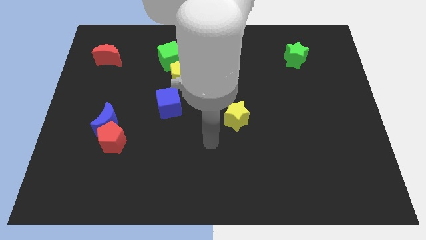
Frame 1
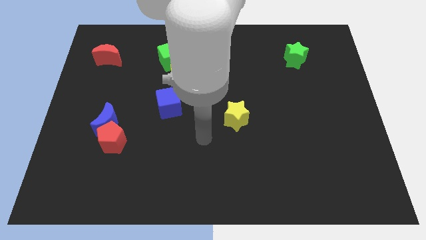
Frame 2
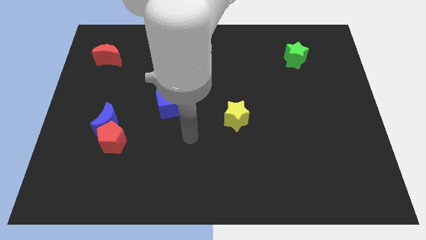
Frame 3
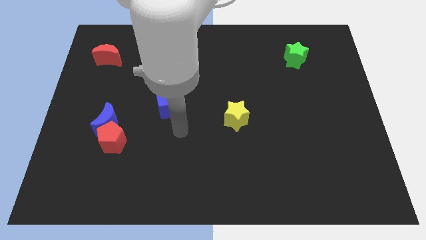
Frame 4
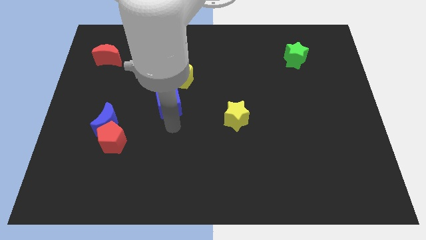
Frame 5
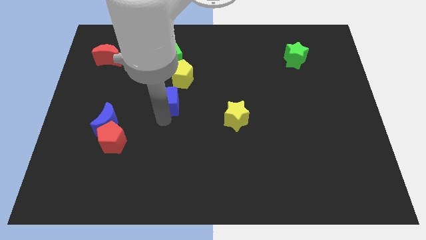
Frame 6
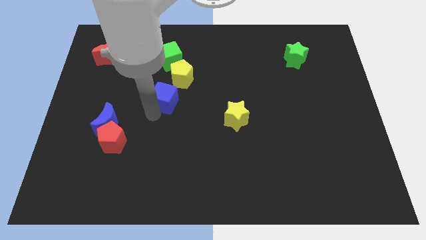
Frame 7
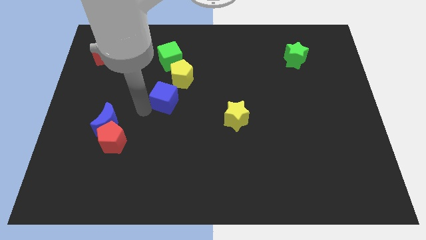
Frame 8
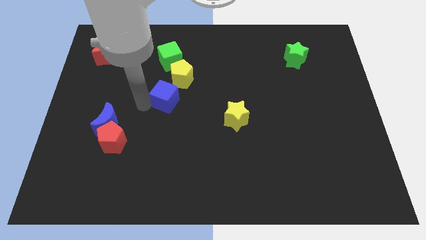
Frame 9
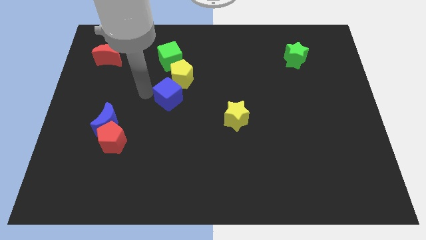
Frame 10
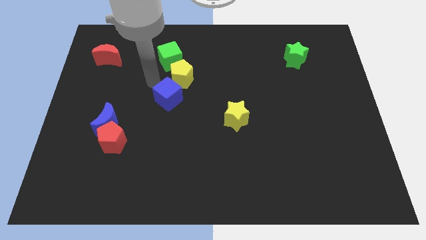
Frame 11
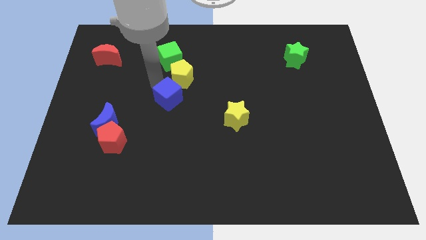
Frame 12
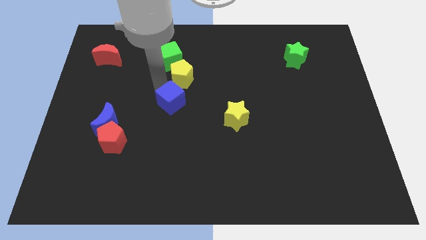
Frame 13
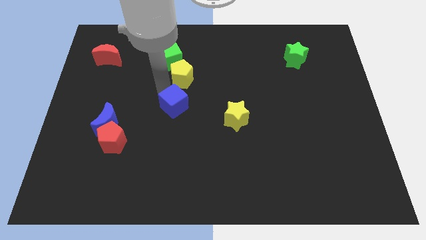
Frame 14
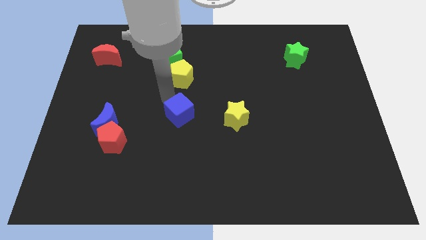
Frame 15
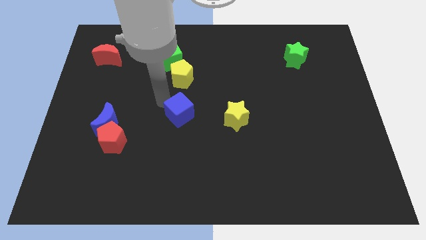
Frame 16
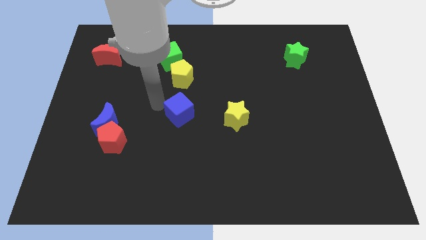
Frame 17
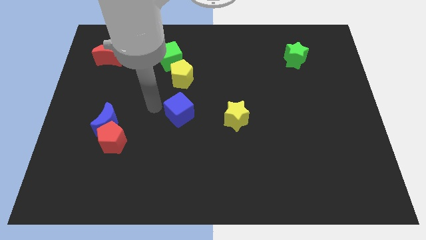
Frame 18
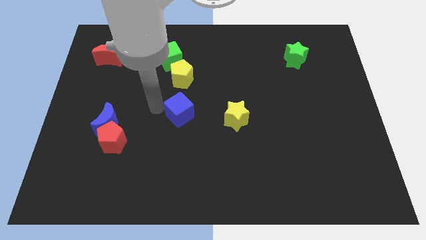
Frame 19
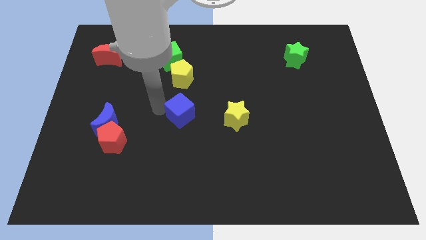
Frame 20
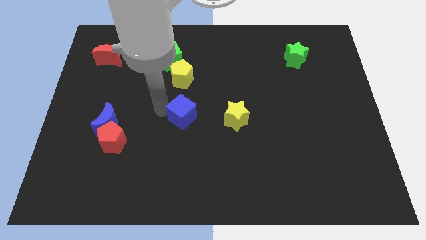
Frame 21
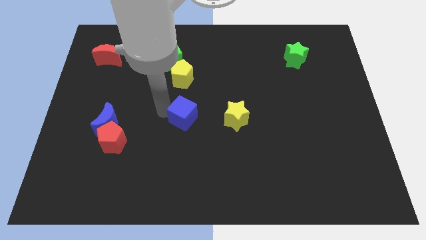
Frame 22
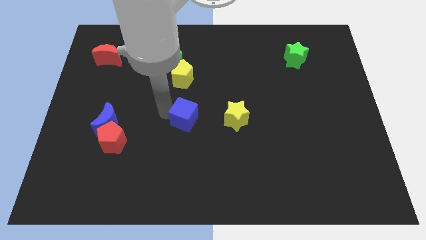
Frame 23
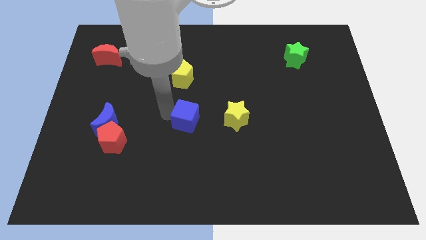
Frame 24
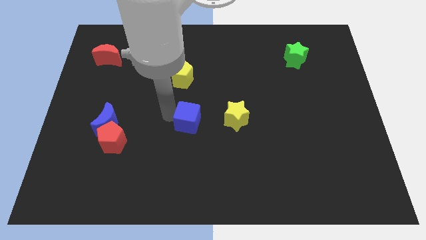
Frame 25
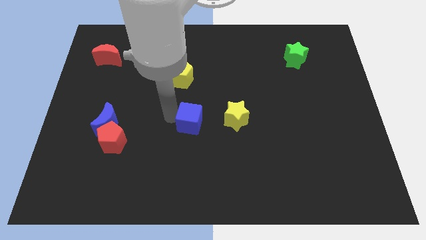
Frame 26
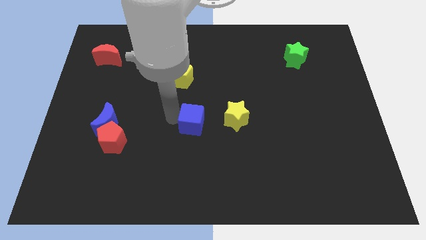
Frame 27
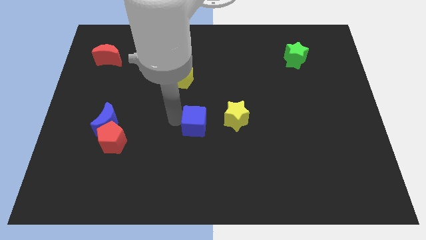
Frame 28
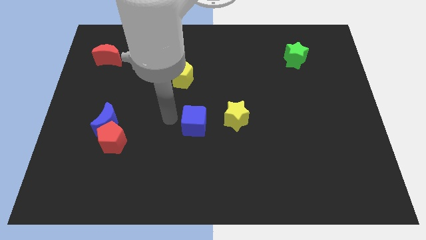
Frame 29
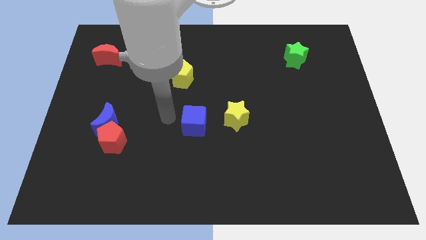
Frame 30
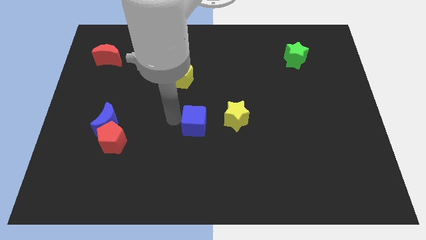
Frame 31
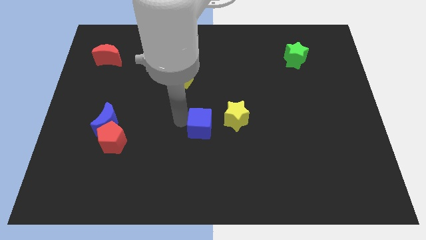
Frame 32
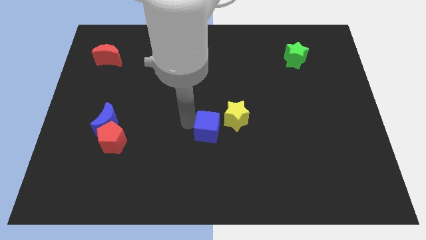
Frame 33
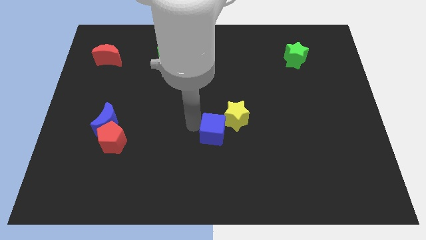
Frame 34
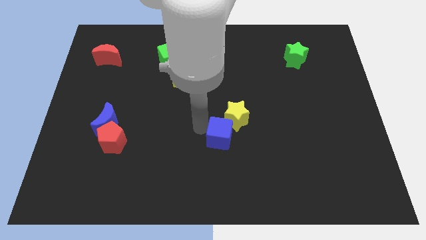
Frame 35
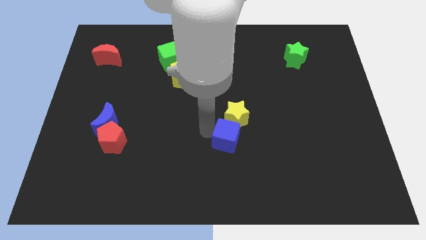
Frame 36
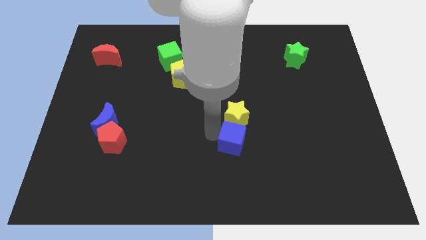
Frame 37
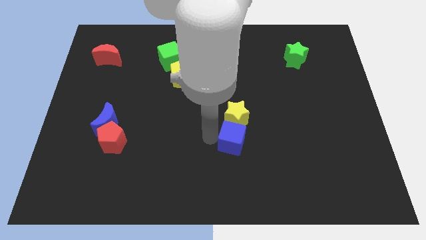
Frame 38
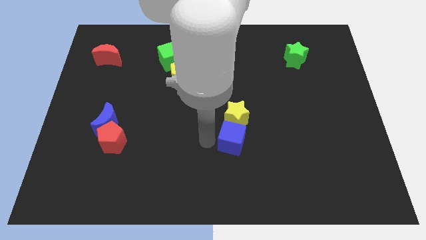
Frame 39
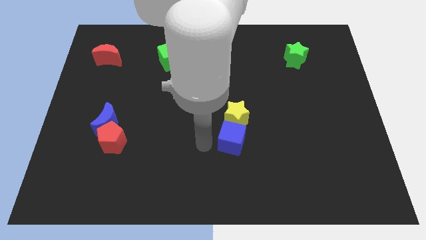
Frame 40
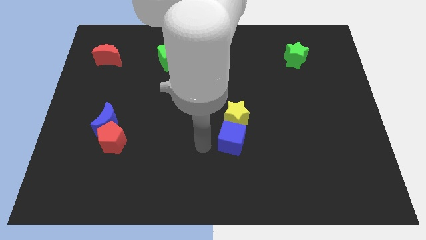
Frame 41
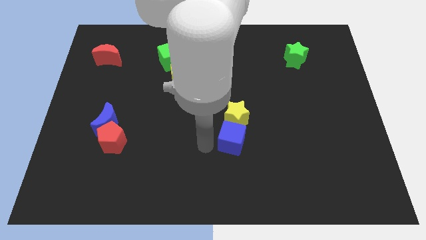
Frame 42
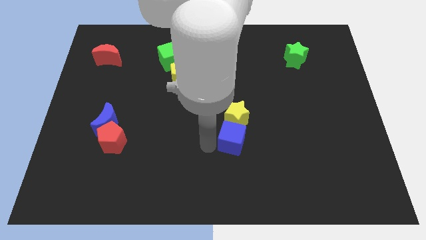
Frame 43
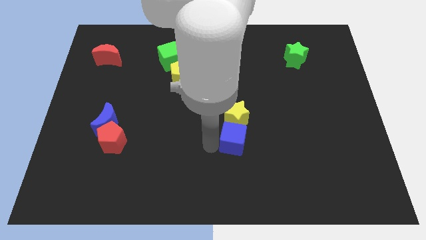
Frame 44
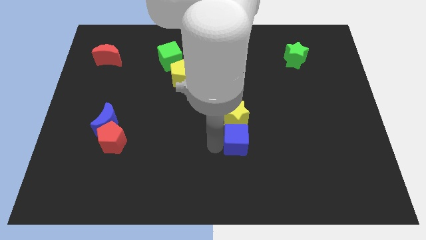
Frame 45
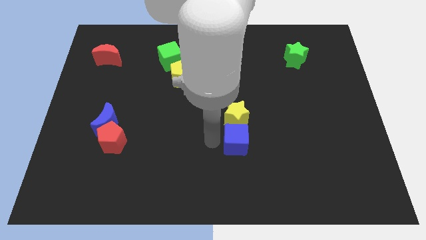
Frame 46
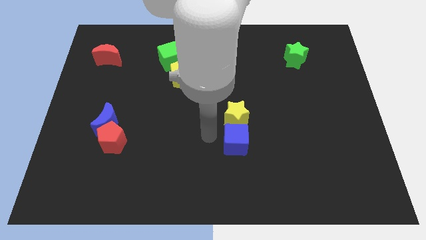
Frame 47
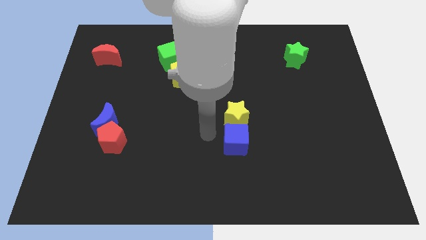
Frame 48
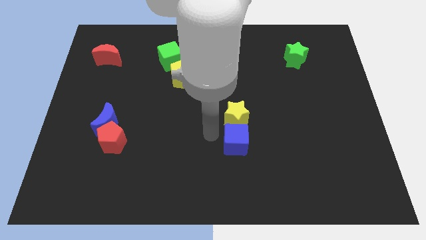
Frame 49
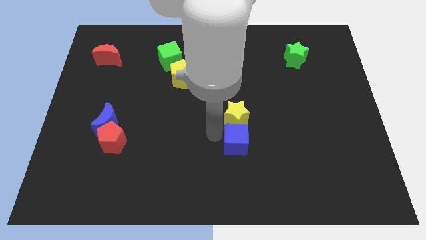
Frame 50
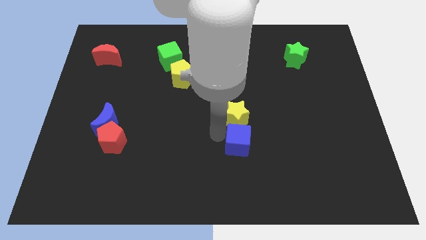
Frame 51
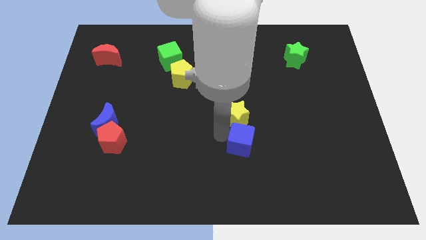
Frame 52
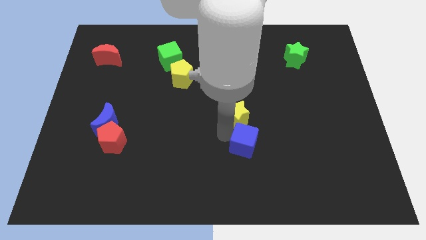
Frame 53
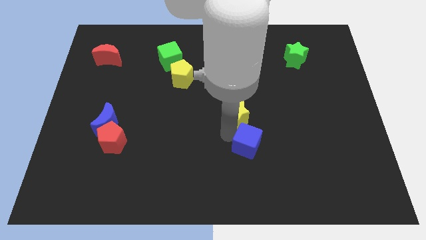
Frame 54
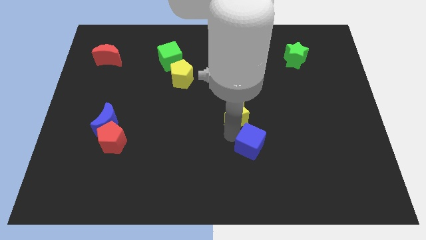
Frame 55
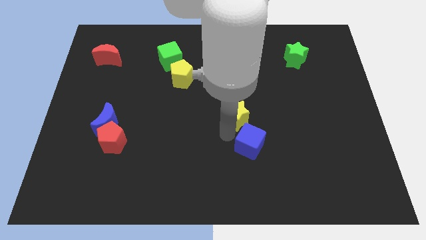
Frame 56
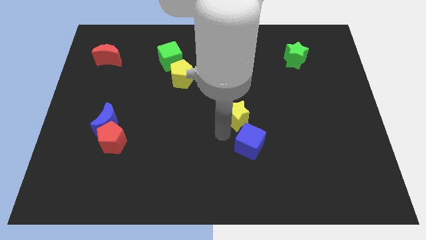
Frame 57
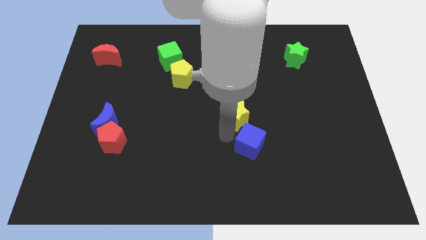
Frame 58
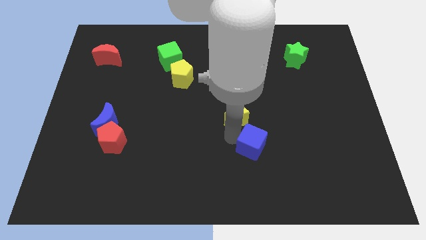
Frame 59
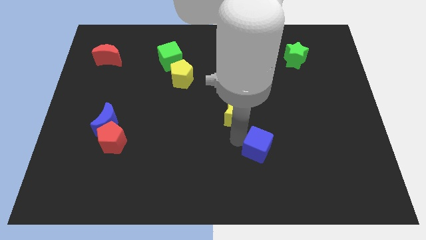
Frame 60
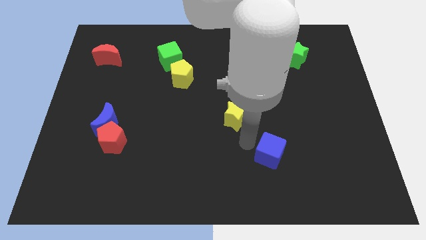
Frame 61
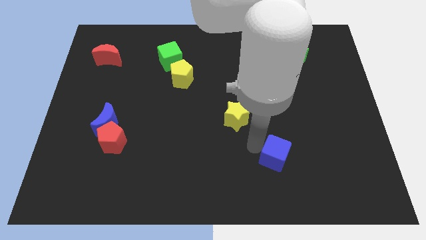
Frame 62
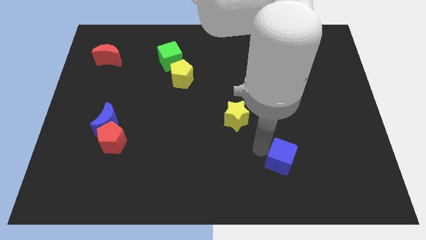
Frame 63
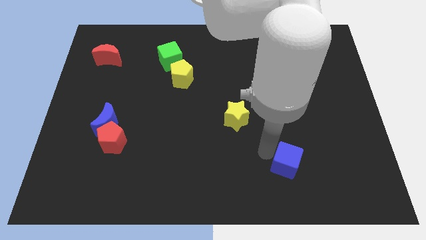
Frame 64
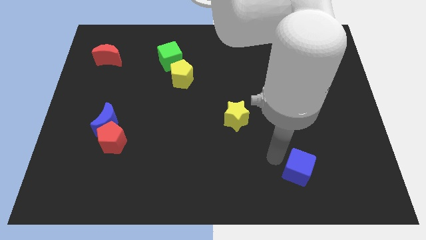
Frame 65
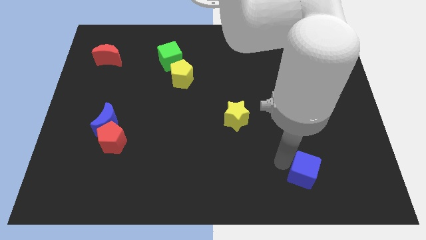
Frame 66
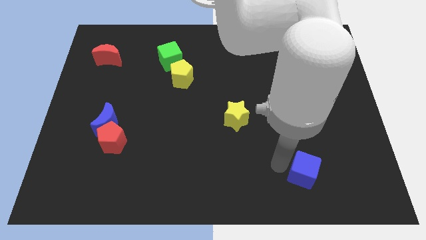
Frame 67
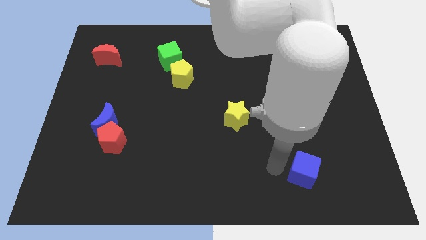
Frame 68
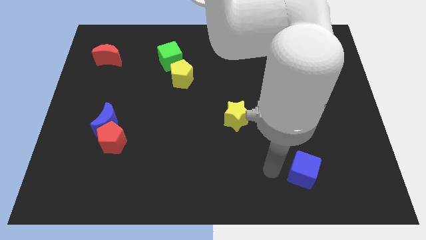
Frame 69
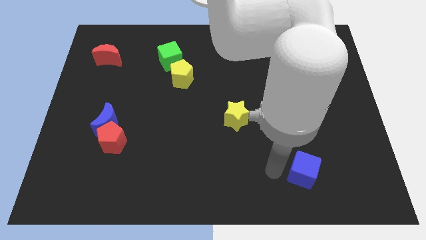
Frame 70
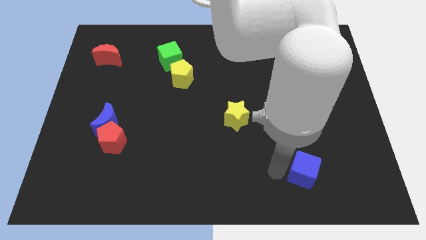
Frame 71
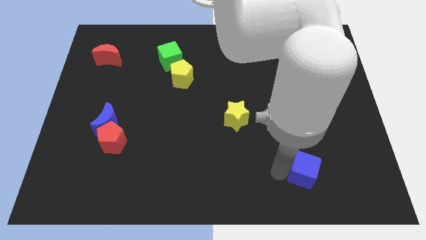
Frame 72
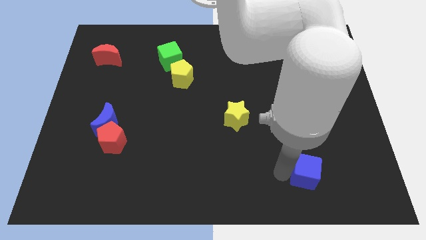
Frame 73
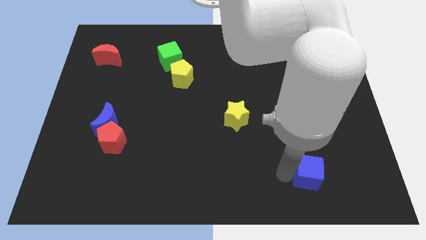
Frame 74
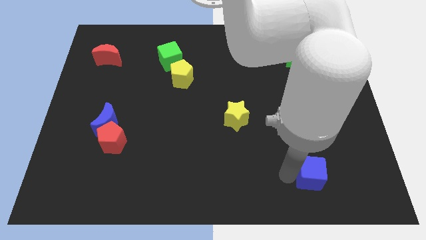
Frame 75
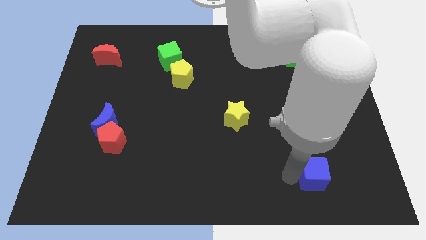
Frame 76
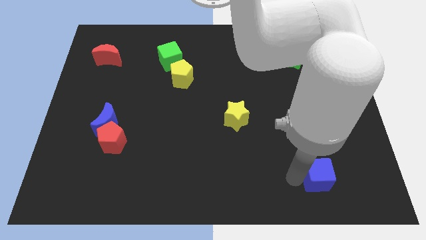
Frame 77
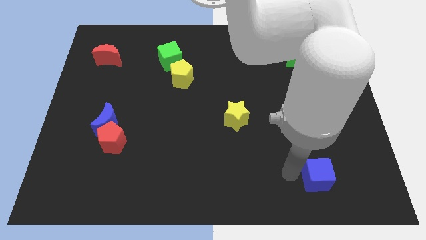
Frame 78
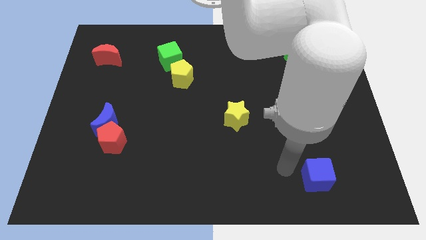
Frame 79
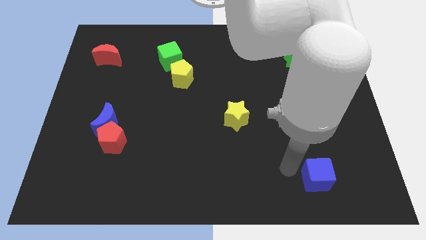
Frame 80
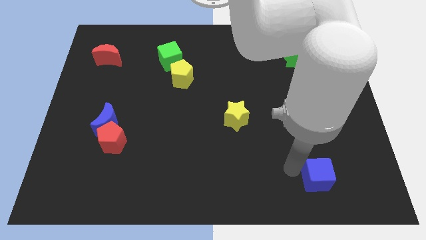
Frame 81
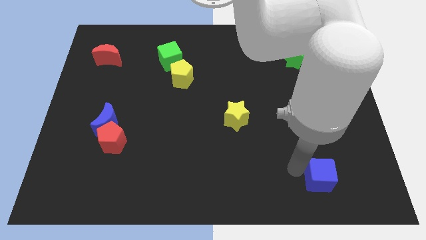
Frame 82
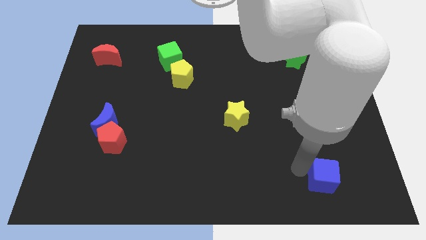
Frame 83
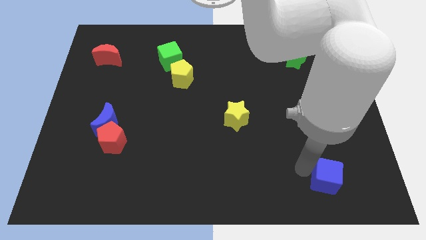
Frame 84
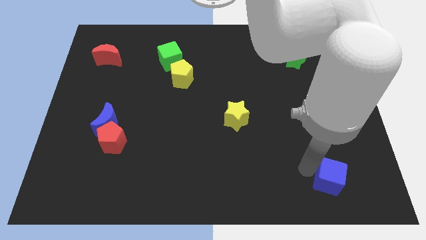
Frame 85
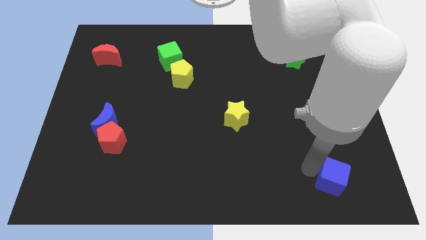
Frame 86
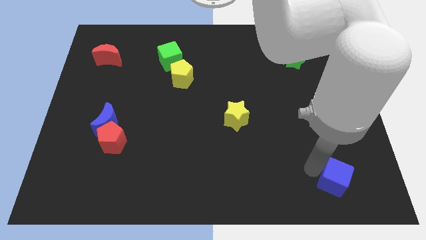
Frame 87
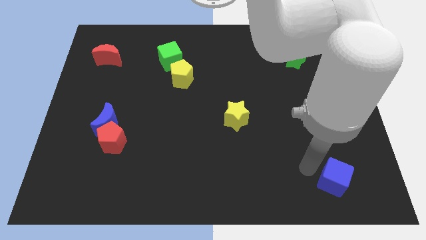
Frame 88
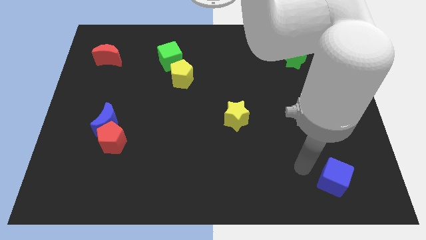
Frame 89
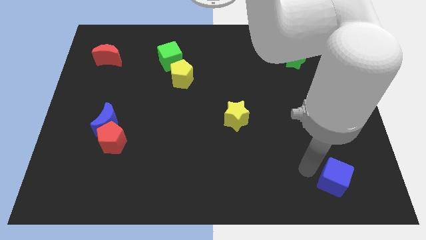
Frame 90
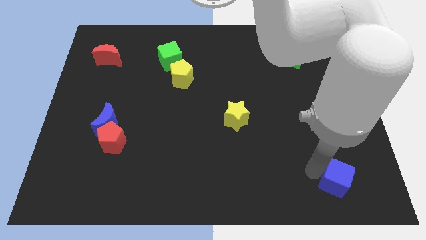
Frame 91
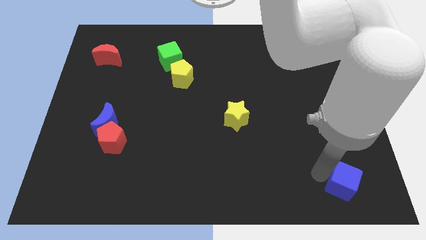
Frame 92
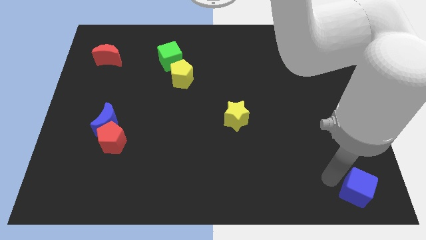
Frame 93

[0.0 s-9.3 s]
slide the blue cube to the lower right corner
